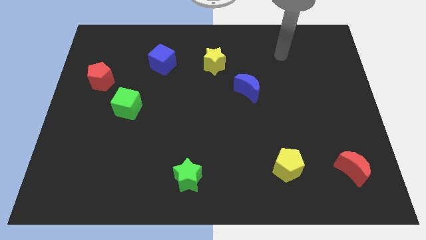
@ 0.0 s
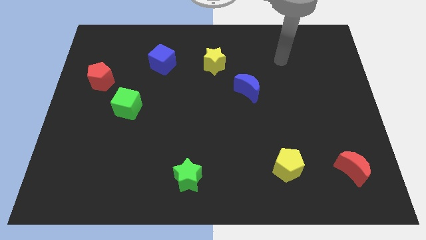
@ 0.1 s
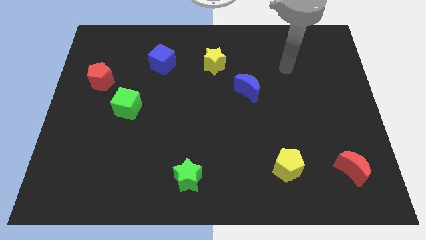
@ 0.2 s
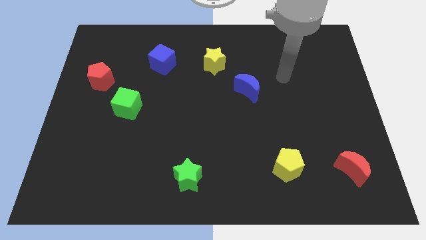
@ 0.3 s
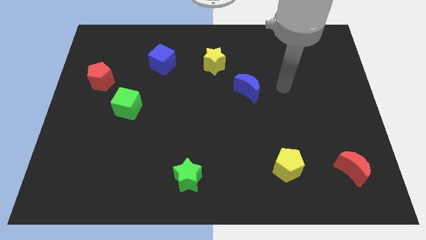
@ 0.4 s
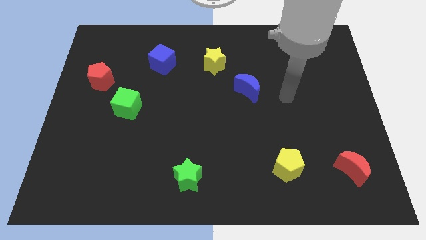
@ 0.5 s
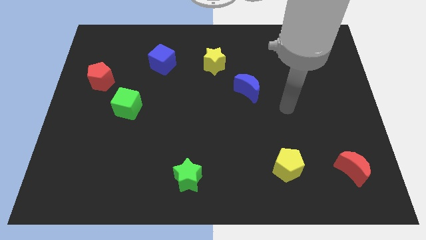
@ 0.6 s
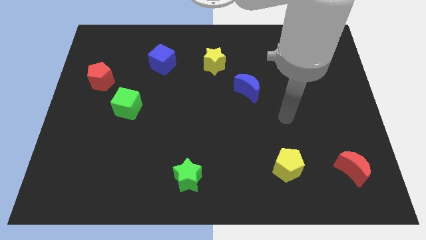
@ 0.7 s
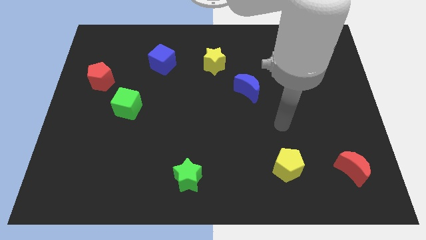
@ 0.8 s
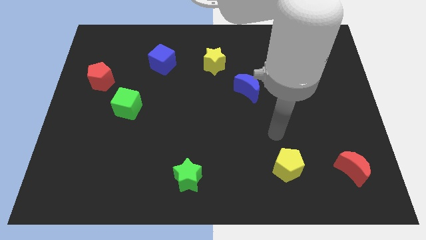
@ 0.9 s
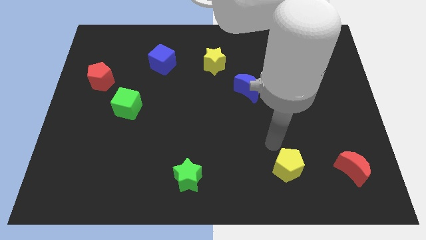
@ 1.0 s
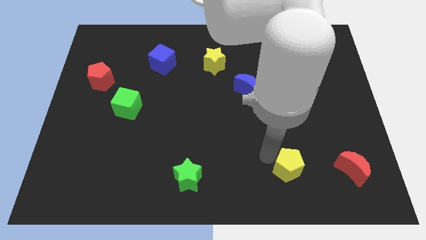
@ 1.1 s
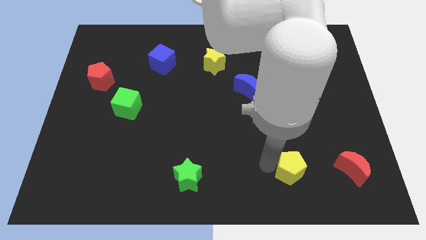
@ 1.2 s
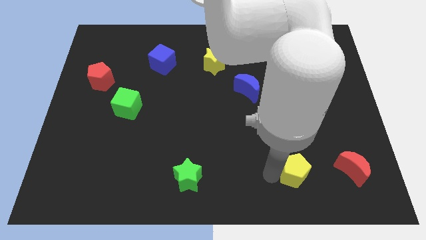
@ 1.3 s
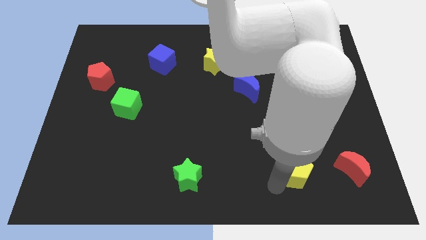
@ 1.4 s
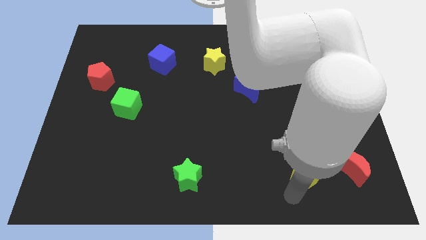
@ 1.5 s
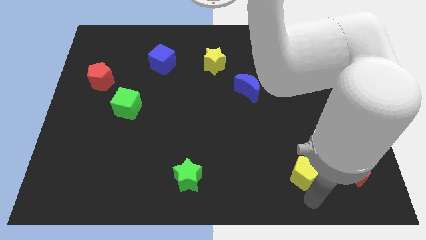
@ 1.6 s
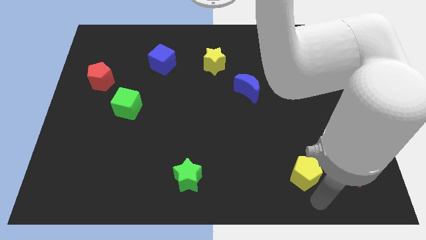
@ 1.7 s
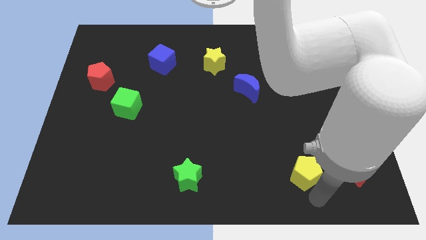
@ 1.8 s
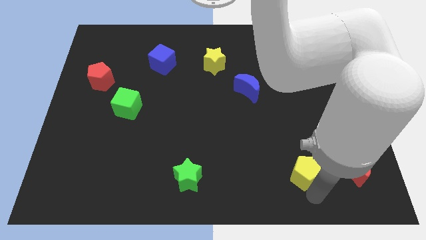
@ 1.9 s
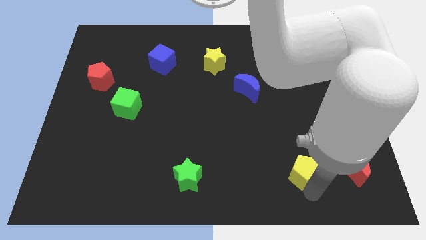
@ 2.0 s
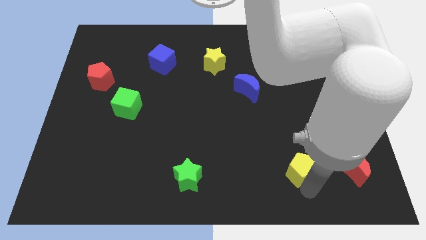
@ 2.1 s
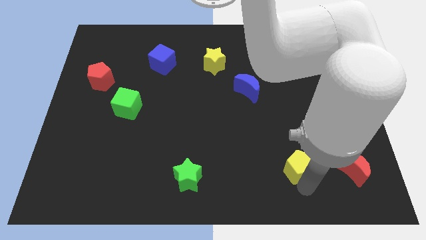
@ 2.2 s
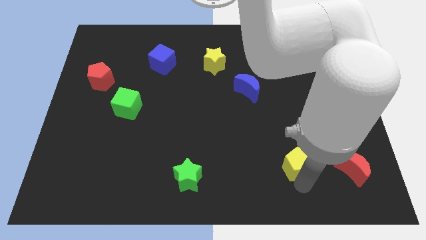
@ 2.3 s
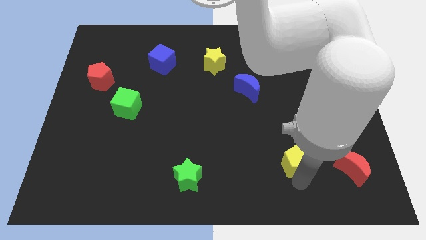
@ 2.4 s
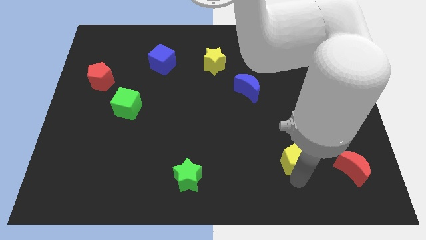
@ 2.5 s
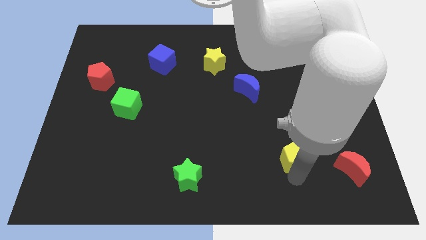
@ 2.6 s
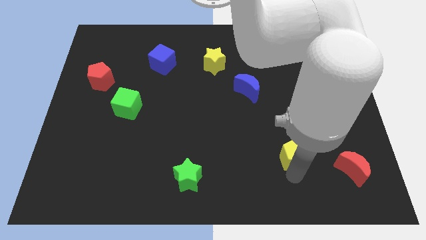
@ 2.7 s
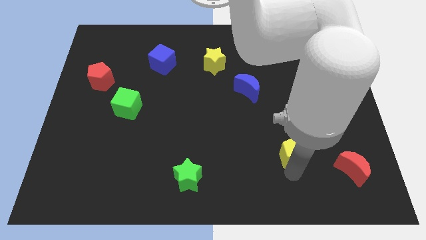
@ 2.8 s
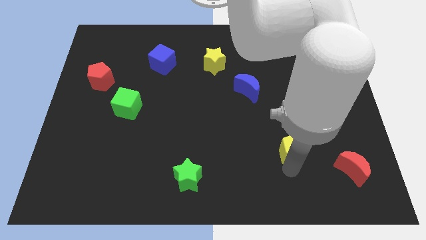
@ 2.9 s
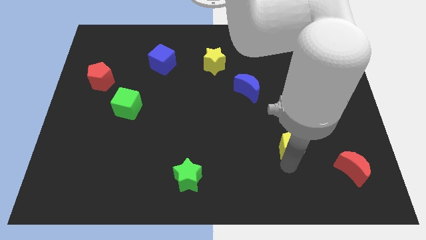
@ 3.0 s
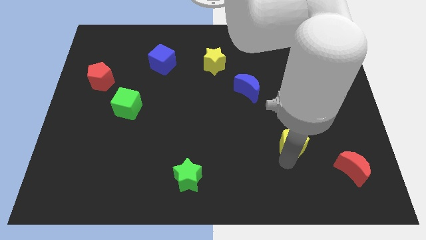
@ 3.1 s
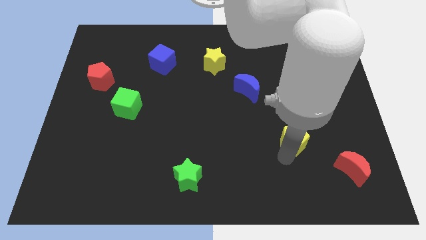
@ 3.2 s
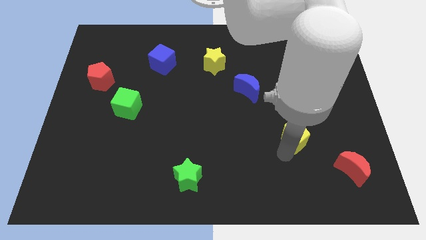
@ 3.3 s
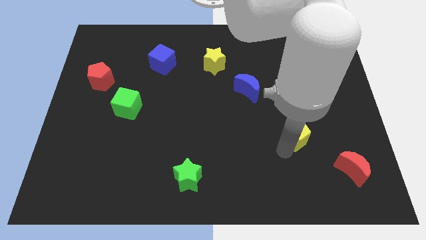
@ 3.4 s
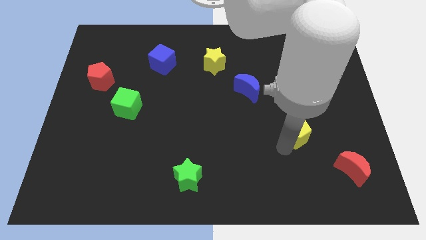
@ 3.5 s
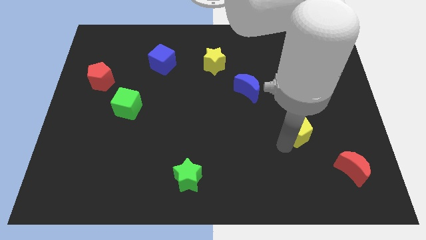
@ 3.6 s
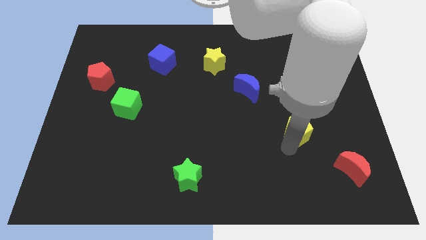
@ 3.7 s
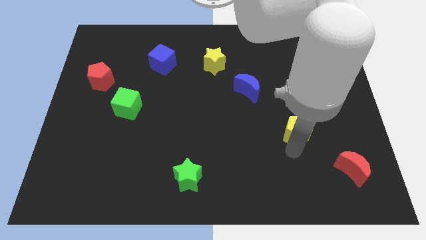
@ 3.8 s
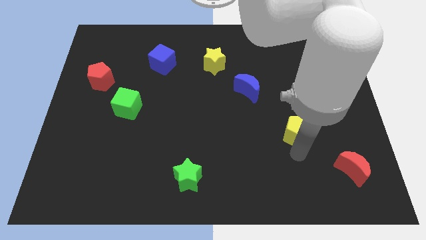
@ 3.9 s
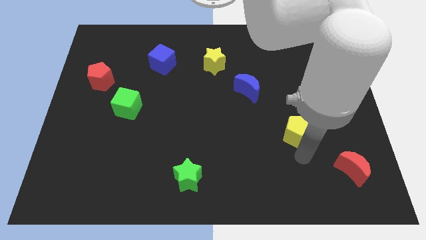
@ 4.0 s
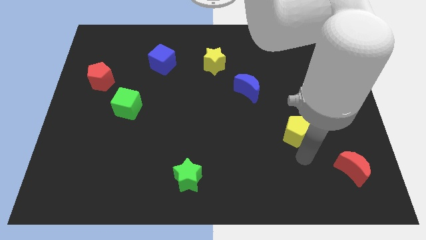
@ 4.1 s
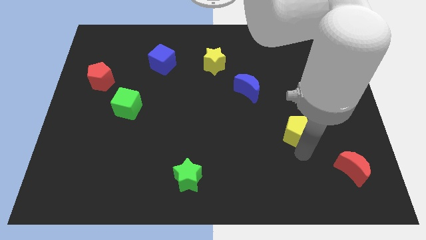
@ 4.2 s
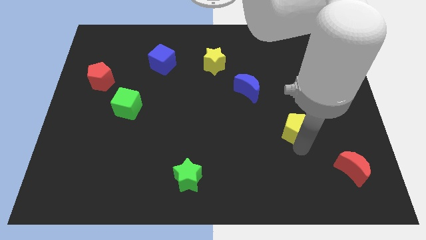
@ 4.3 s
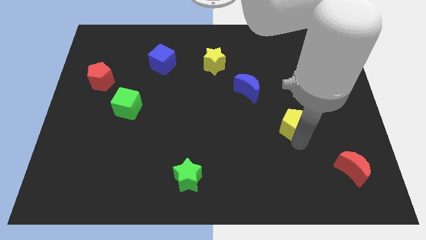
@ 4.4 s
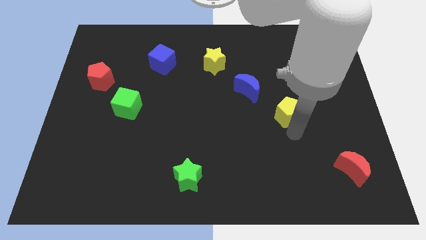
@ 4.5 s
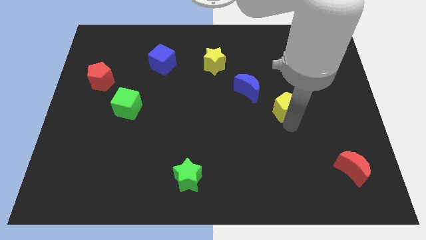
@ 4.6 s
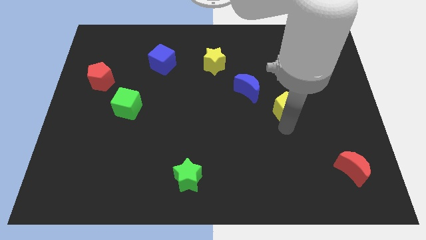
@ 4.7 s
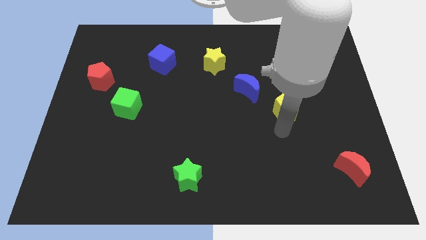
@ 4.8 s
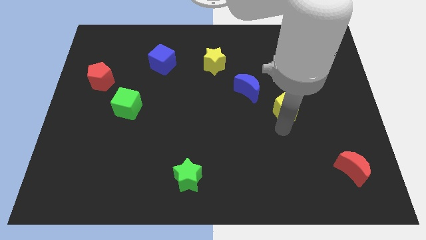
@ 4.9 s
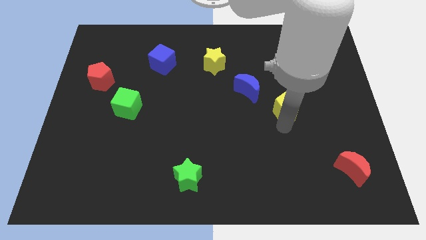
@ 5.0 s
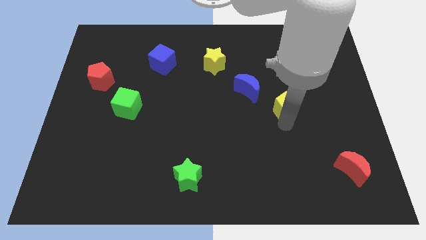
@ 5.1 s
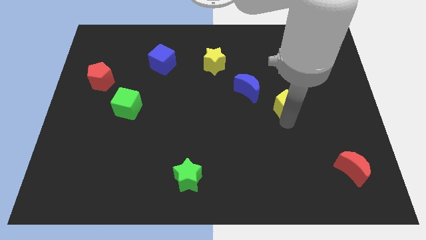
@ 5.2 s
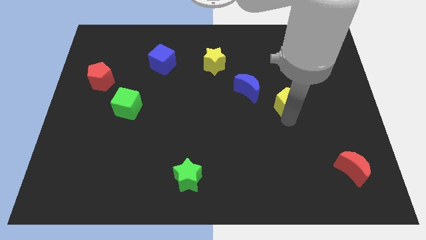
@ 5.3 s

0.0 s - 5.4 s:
slide the yellow pentagon to the right of the blue moon

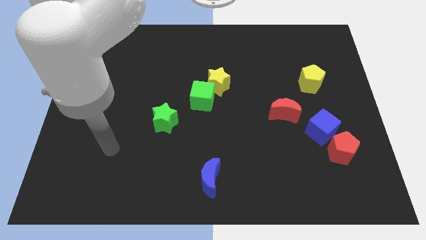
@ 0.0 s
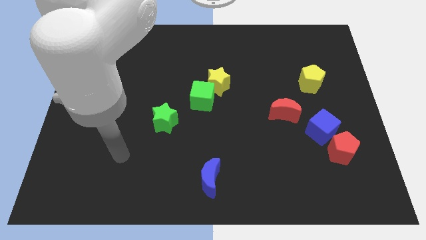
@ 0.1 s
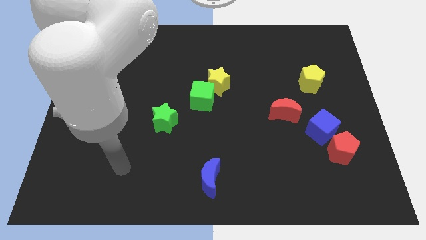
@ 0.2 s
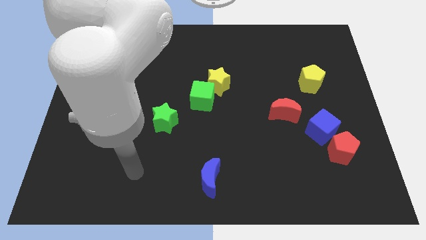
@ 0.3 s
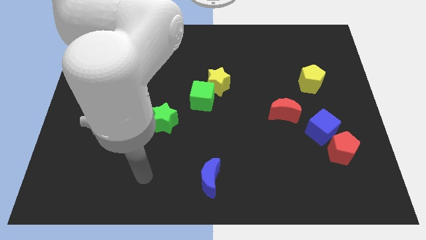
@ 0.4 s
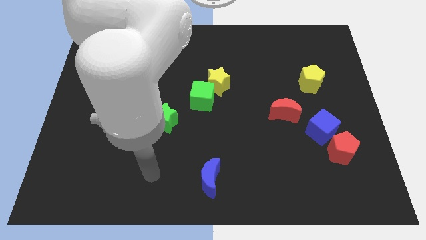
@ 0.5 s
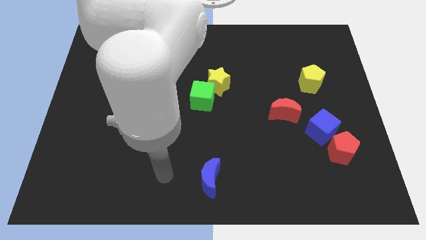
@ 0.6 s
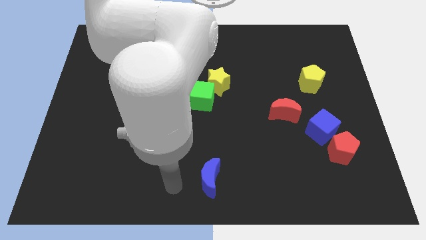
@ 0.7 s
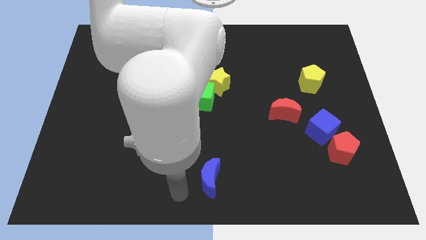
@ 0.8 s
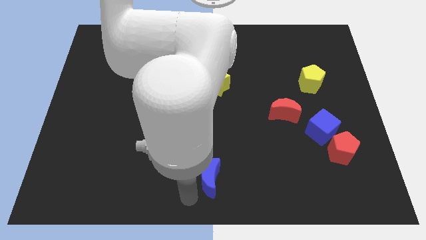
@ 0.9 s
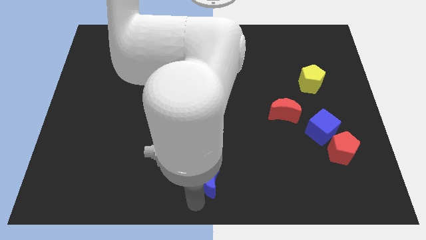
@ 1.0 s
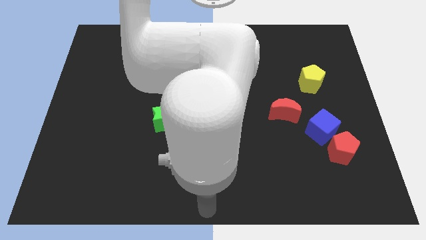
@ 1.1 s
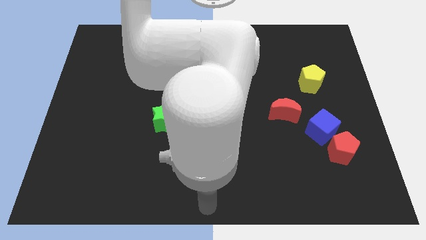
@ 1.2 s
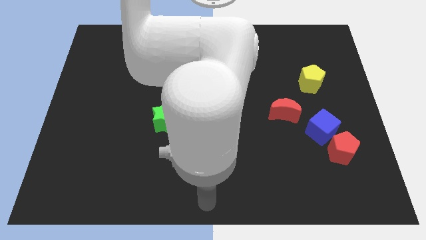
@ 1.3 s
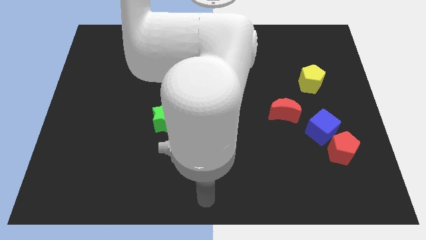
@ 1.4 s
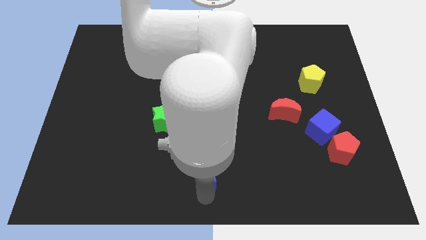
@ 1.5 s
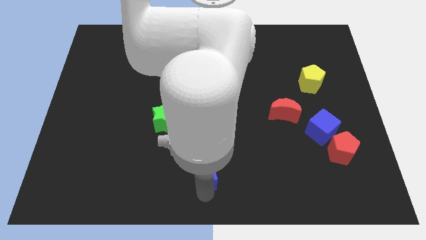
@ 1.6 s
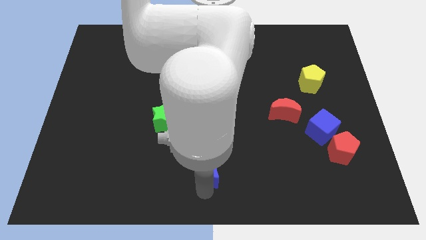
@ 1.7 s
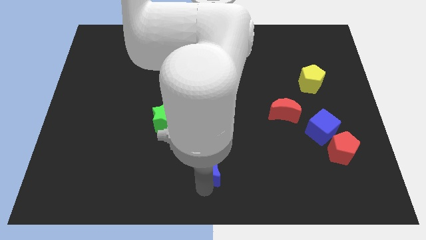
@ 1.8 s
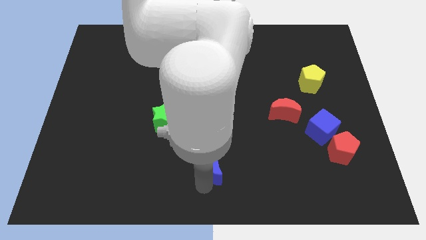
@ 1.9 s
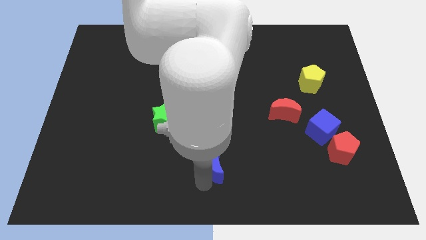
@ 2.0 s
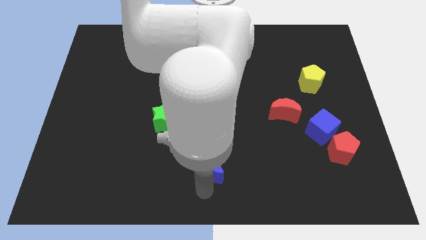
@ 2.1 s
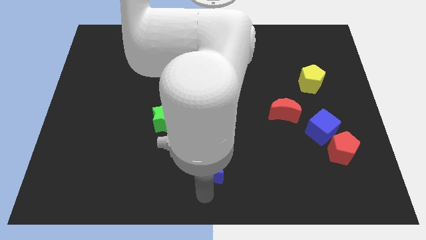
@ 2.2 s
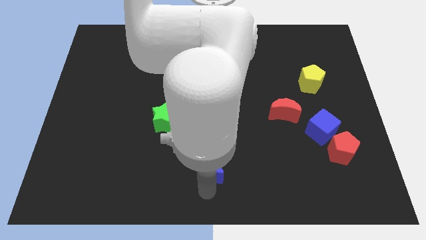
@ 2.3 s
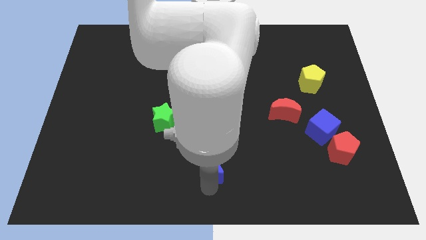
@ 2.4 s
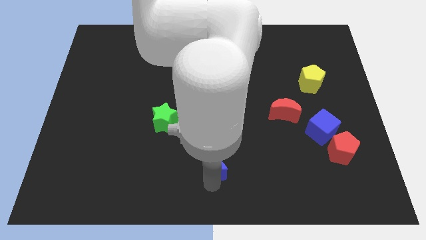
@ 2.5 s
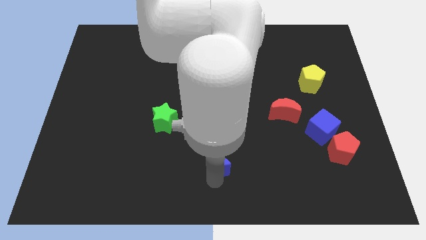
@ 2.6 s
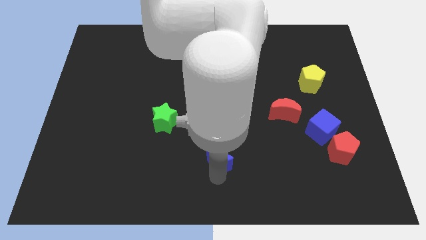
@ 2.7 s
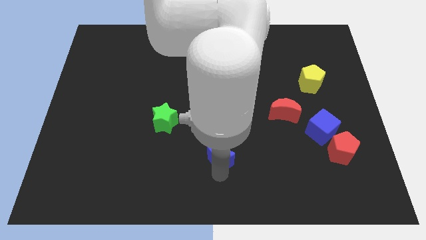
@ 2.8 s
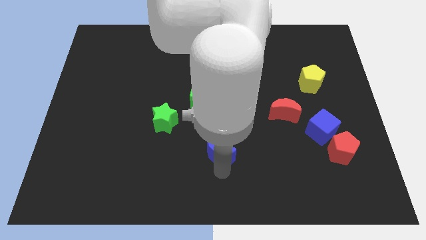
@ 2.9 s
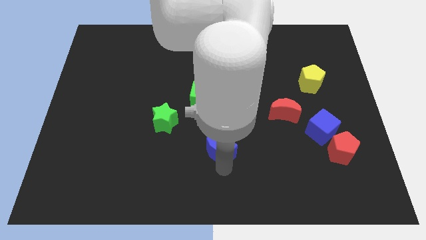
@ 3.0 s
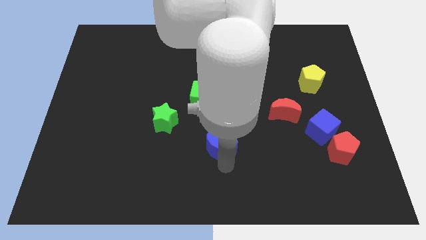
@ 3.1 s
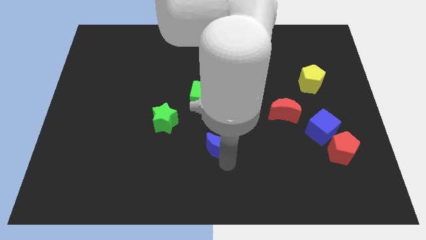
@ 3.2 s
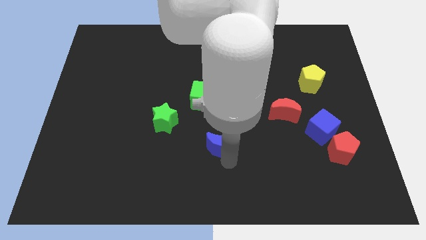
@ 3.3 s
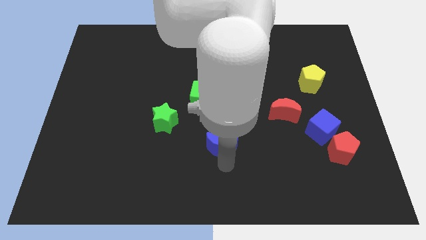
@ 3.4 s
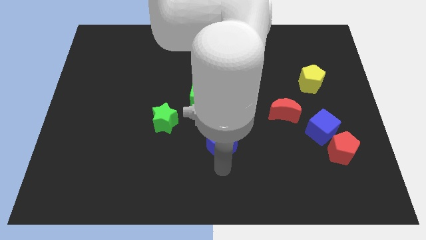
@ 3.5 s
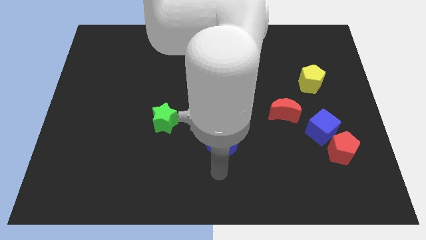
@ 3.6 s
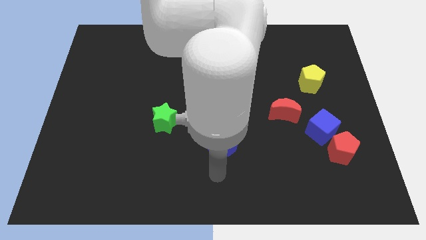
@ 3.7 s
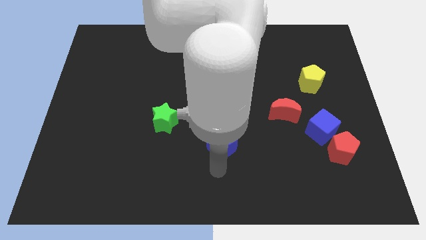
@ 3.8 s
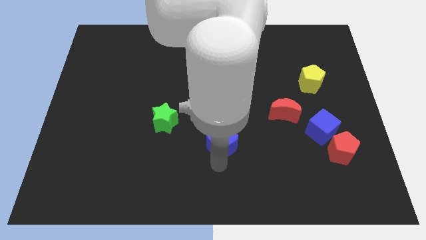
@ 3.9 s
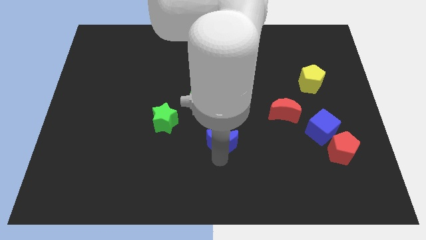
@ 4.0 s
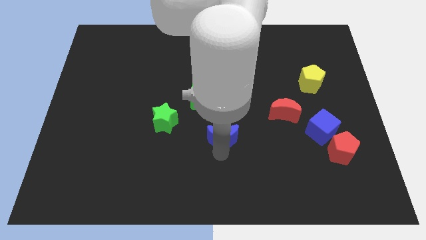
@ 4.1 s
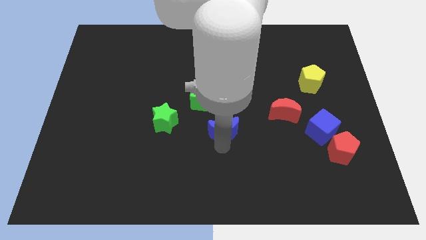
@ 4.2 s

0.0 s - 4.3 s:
move the blue moon to the bottom right side of the green cube
